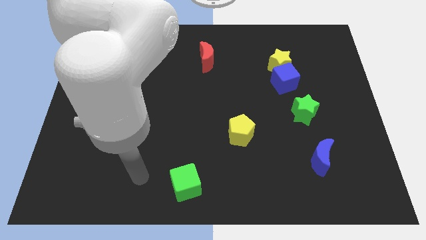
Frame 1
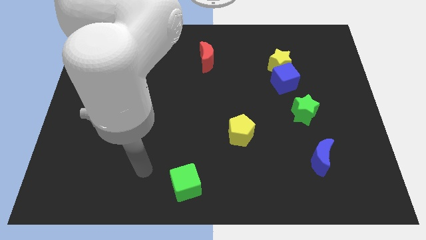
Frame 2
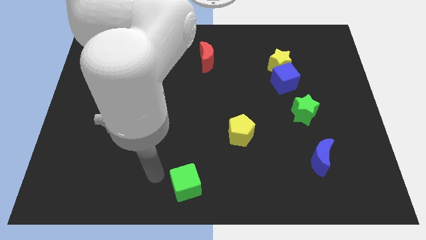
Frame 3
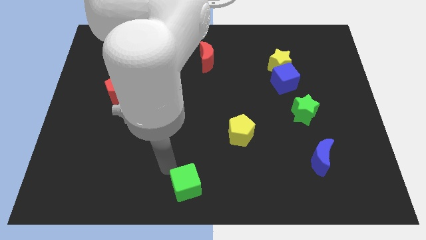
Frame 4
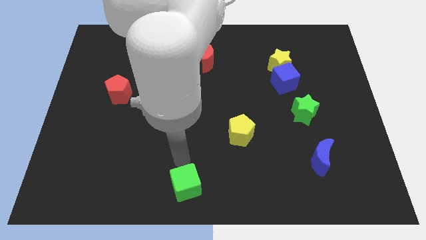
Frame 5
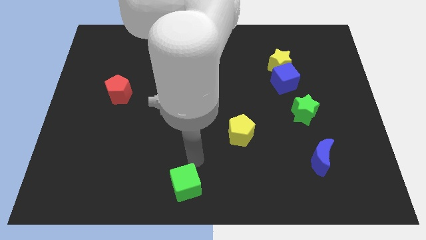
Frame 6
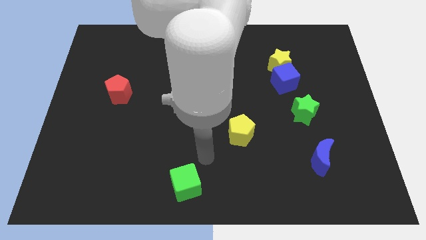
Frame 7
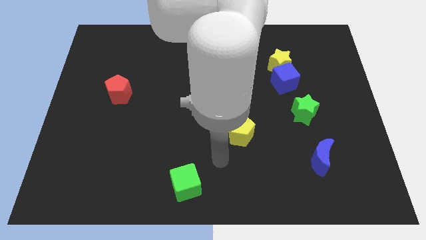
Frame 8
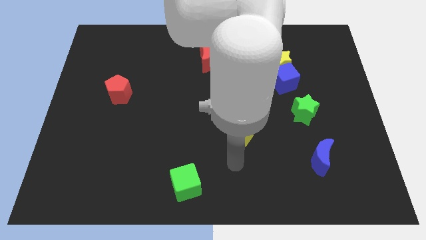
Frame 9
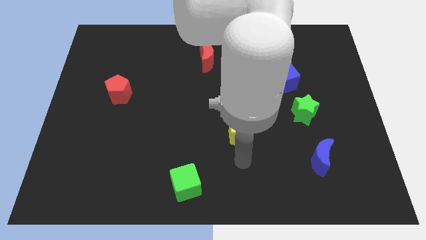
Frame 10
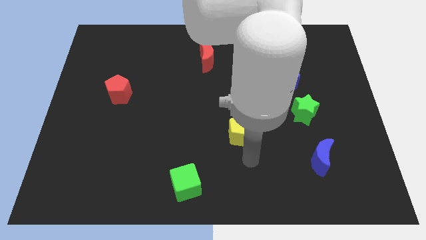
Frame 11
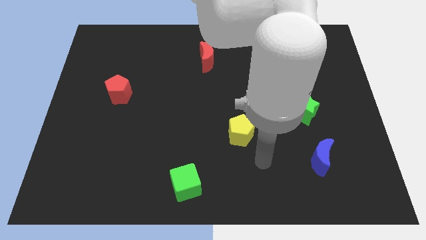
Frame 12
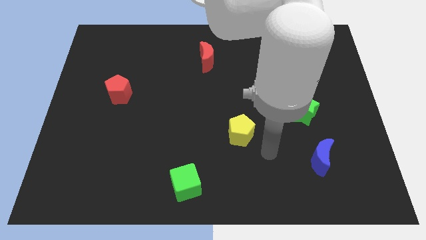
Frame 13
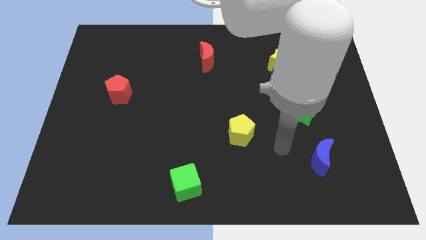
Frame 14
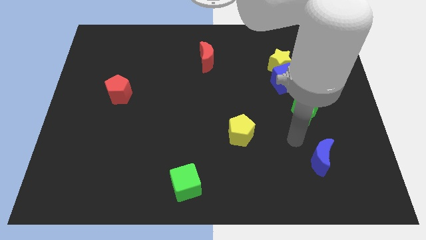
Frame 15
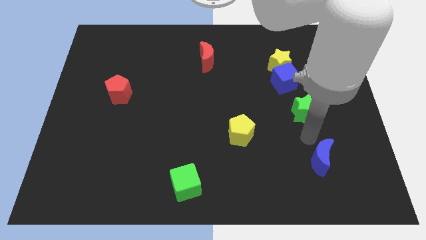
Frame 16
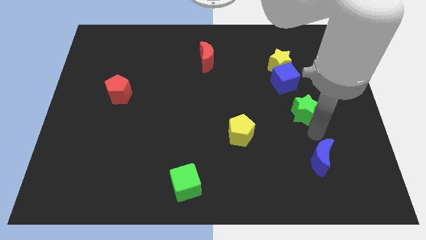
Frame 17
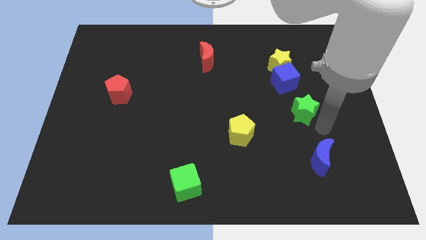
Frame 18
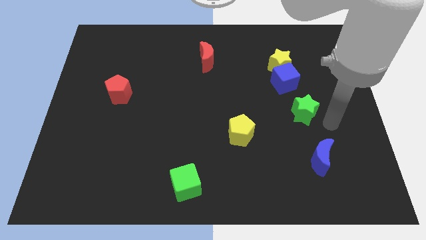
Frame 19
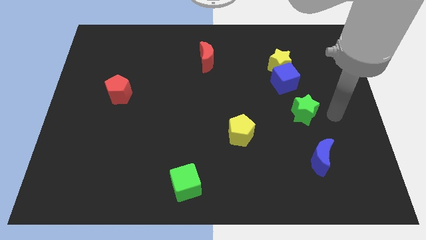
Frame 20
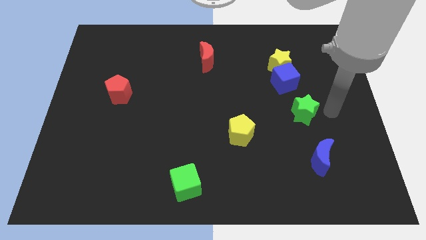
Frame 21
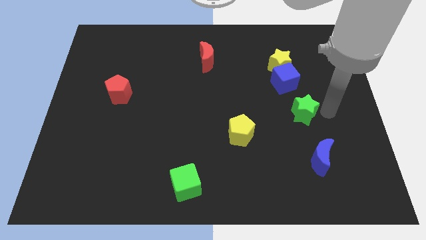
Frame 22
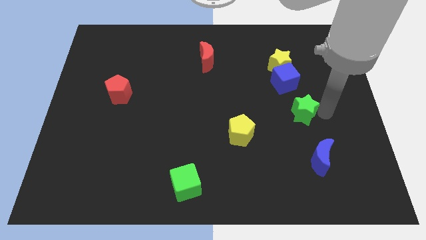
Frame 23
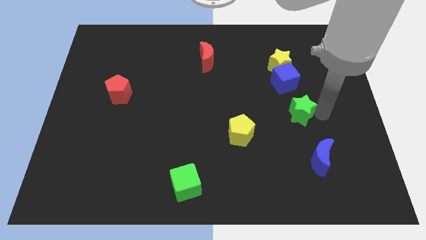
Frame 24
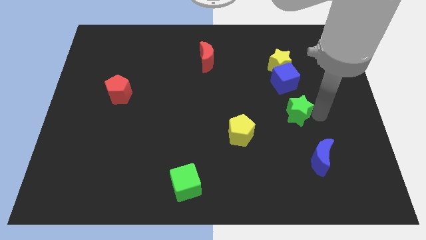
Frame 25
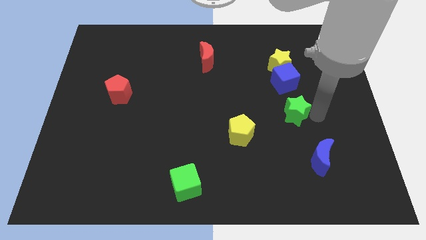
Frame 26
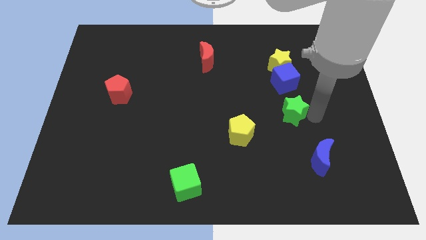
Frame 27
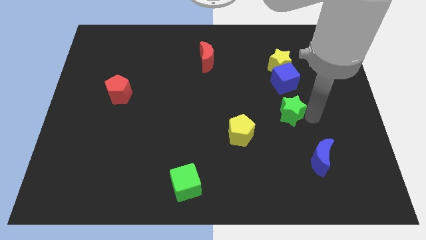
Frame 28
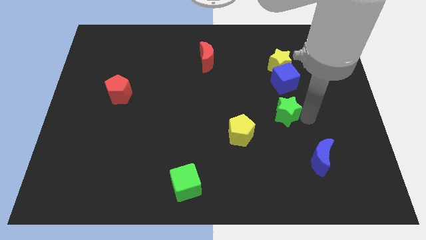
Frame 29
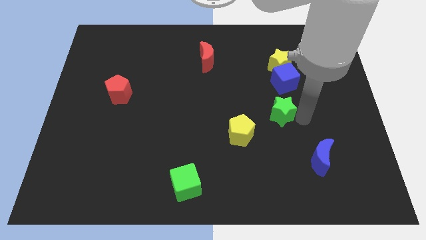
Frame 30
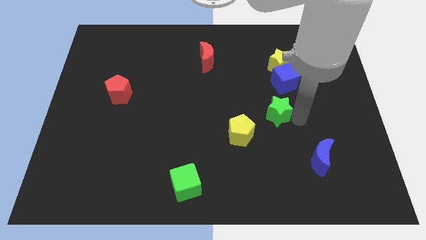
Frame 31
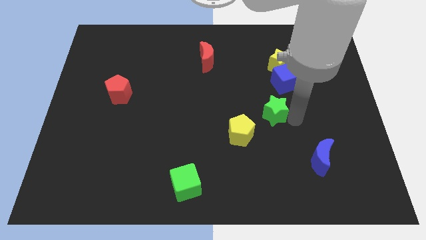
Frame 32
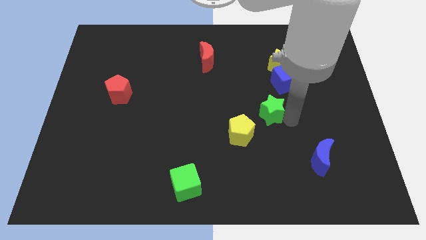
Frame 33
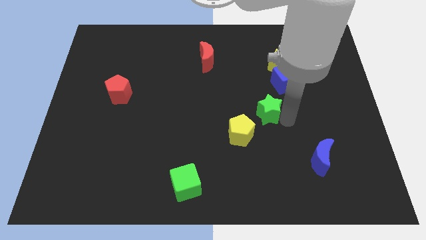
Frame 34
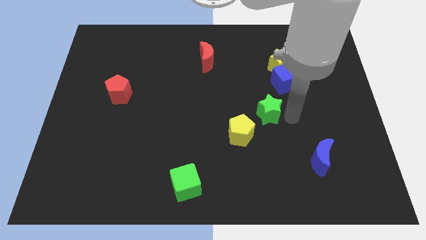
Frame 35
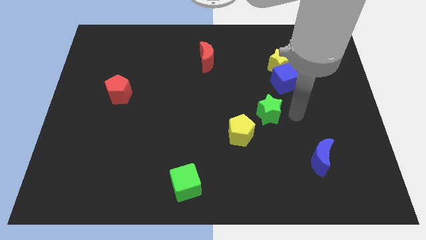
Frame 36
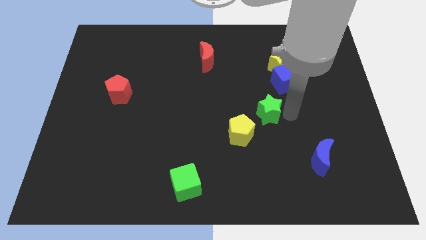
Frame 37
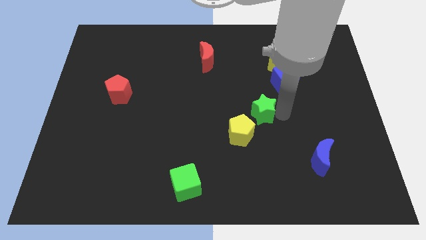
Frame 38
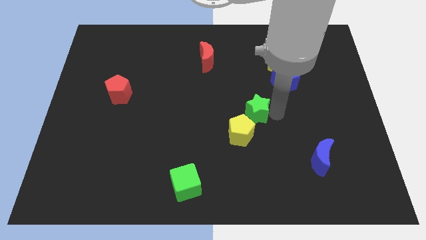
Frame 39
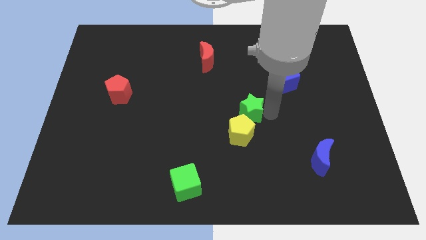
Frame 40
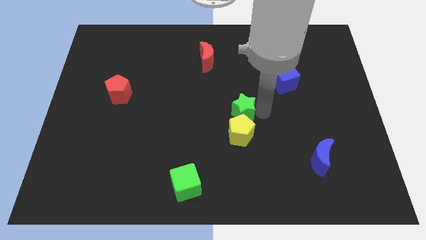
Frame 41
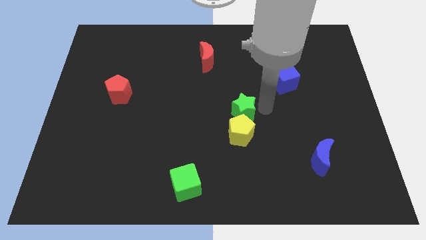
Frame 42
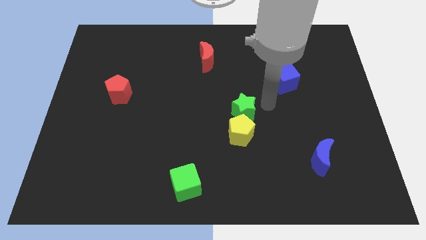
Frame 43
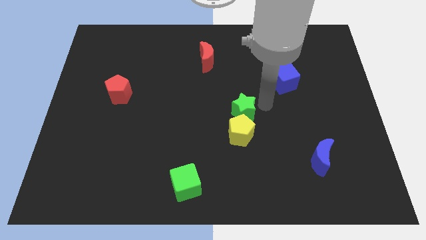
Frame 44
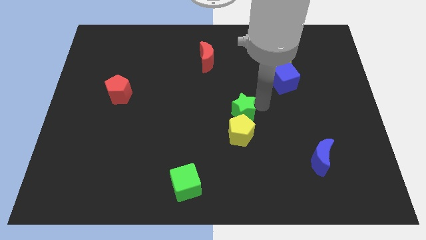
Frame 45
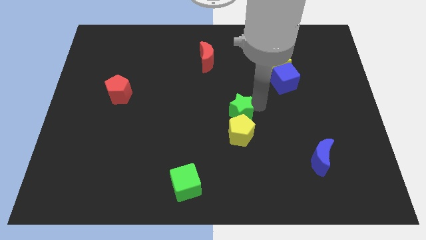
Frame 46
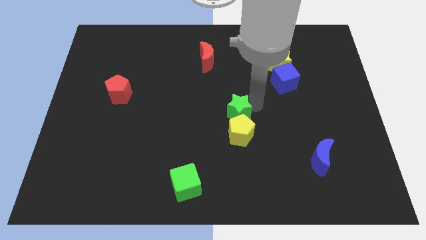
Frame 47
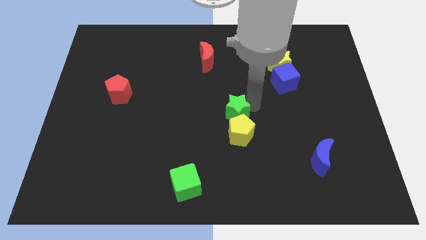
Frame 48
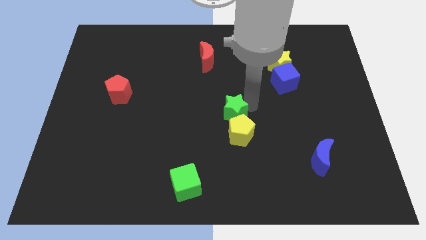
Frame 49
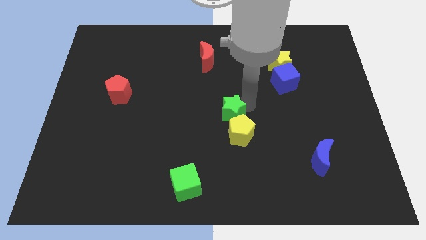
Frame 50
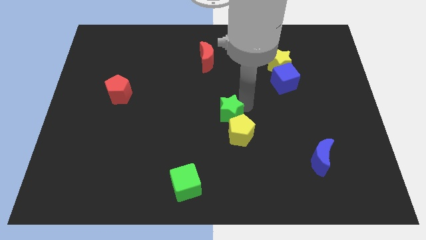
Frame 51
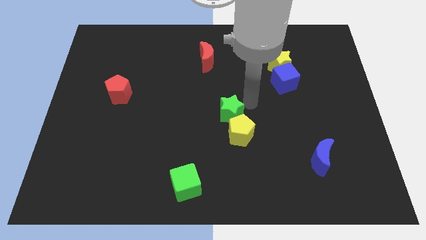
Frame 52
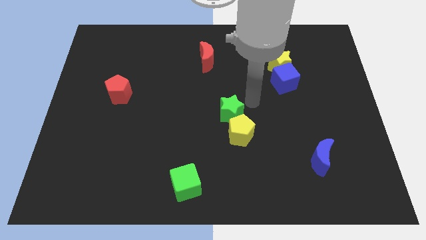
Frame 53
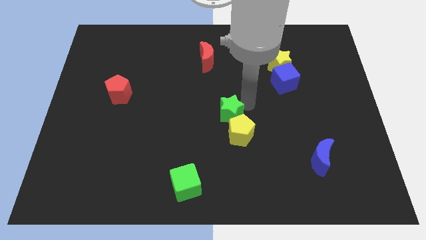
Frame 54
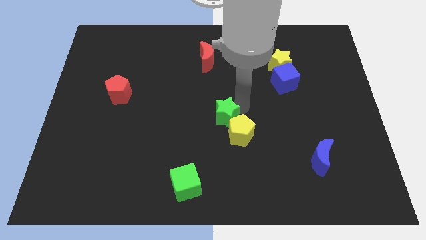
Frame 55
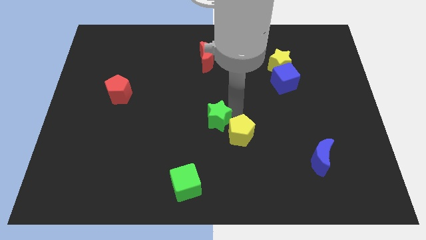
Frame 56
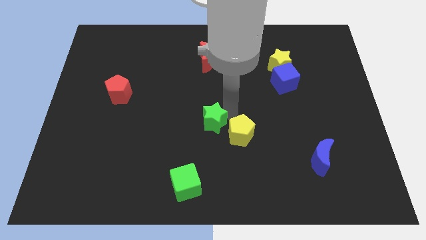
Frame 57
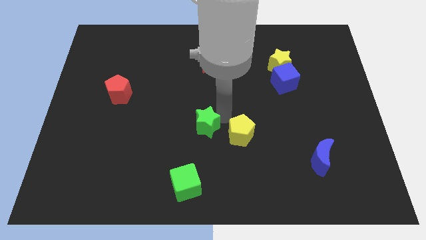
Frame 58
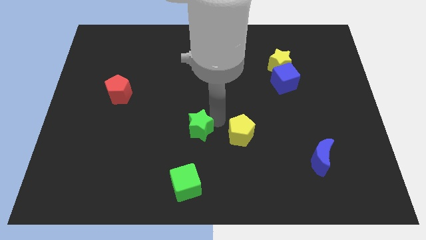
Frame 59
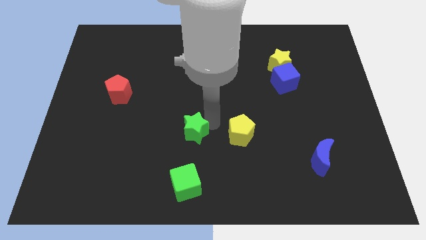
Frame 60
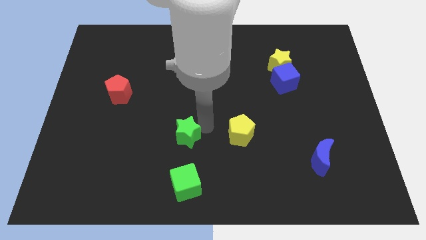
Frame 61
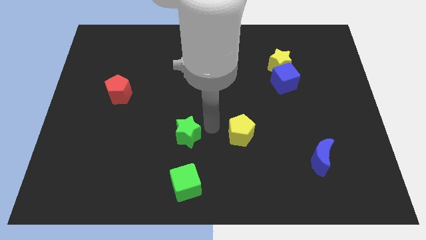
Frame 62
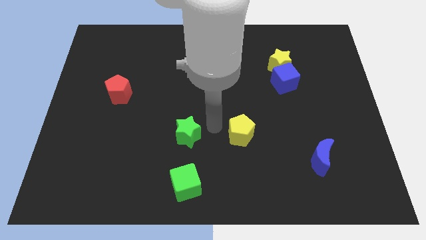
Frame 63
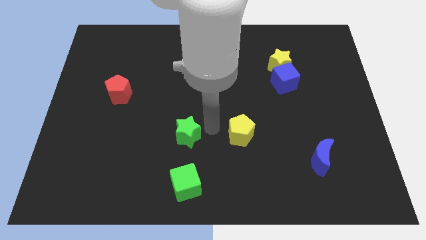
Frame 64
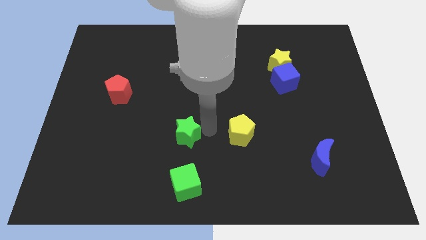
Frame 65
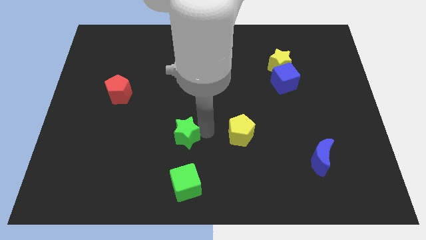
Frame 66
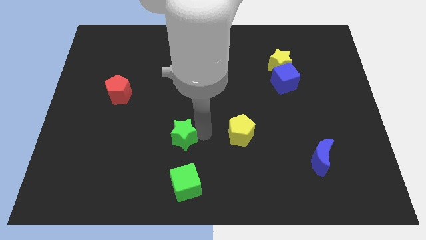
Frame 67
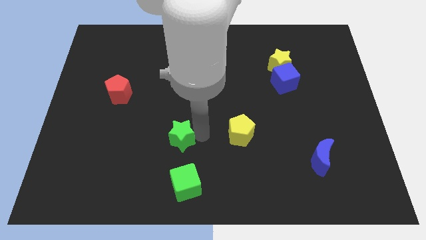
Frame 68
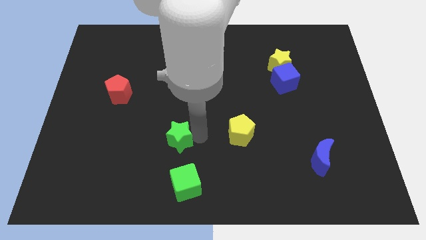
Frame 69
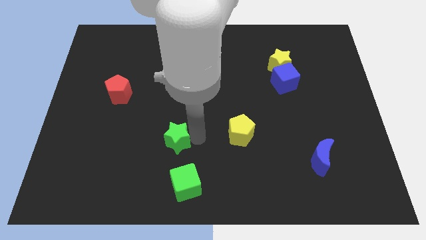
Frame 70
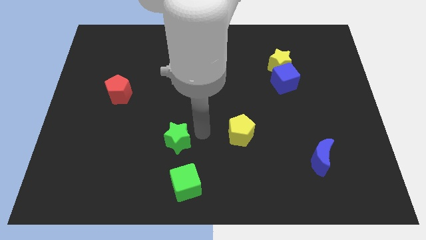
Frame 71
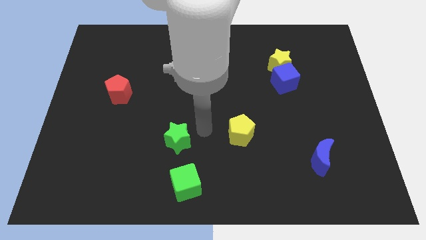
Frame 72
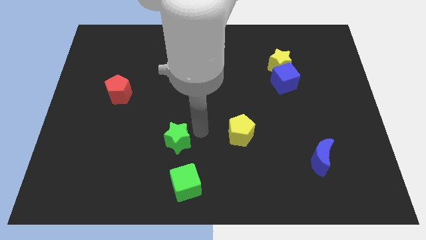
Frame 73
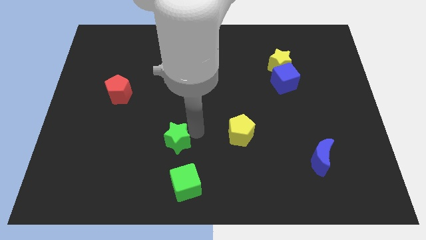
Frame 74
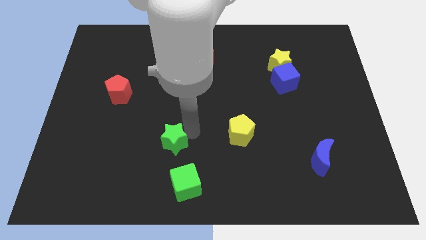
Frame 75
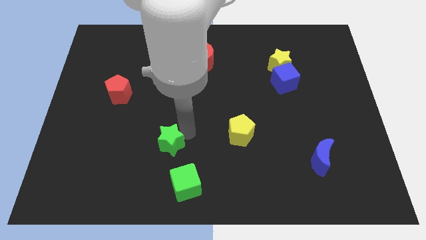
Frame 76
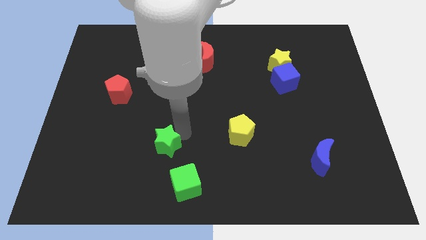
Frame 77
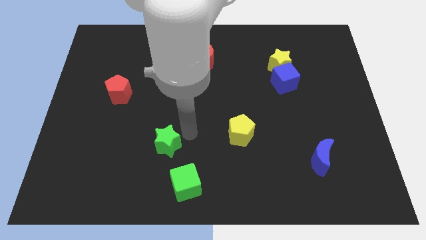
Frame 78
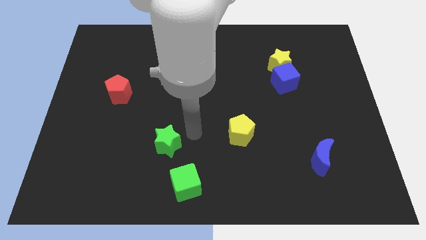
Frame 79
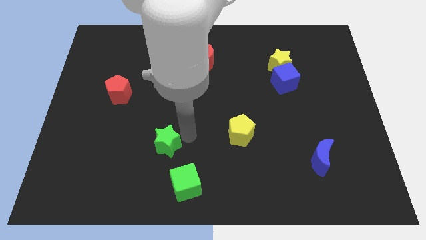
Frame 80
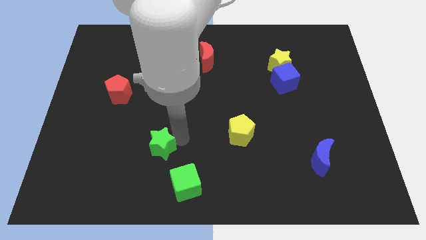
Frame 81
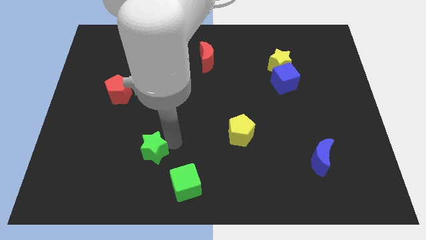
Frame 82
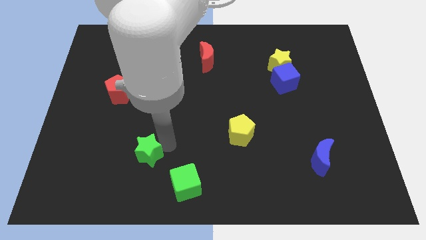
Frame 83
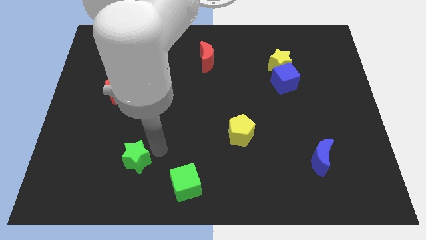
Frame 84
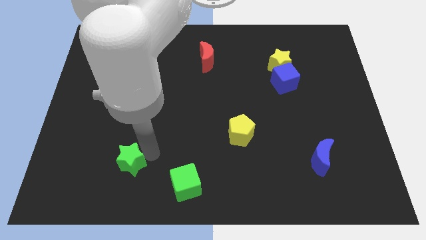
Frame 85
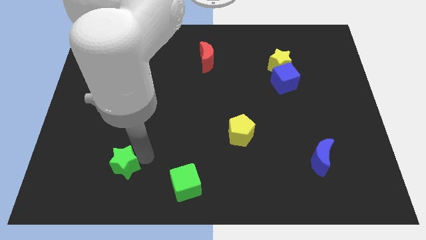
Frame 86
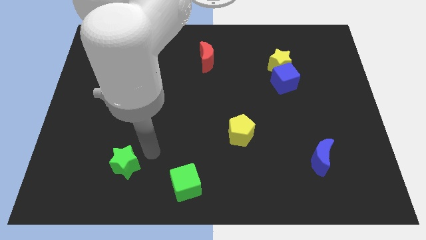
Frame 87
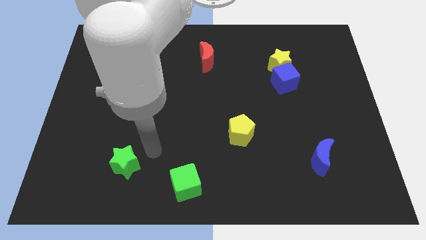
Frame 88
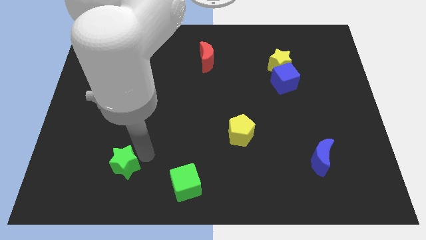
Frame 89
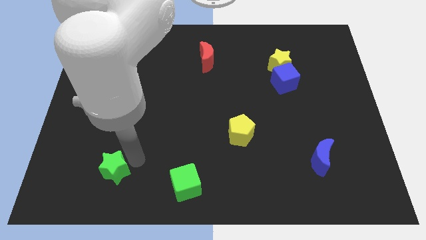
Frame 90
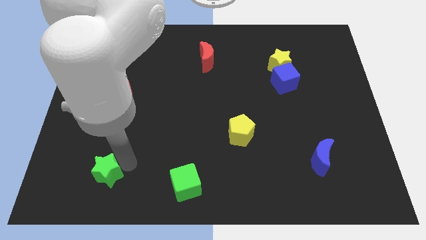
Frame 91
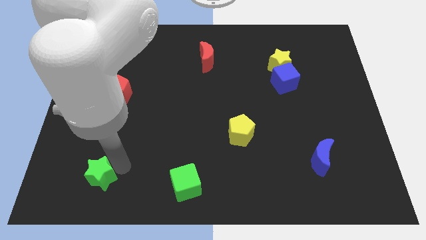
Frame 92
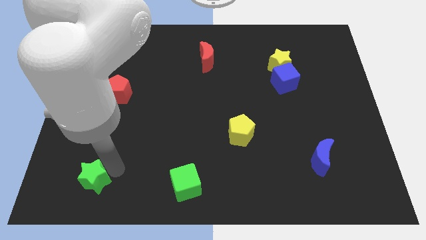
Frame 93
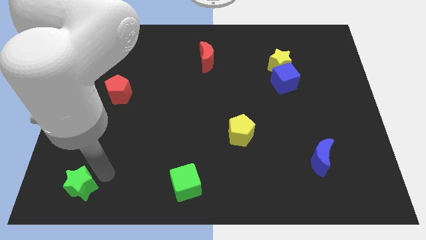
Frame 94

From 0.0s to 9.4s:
move the green star to the bottom left
